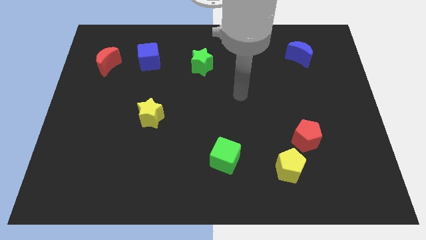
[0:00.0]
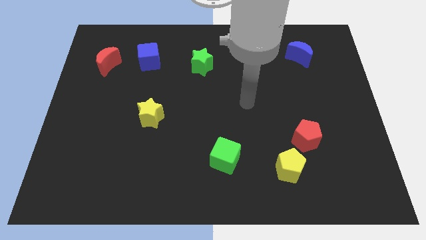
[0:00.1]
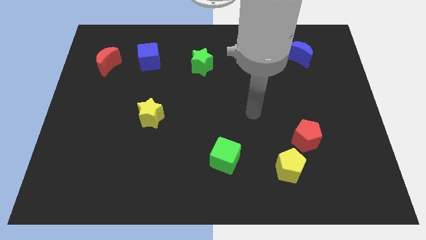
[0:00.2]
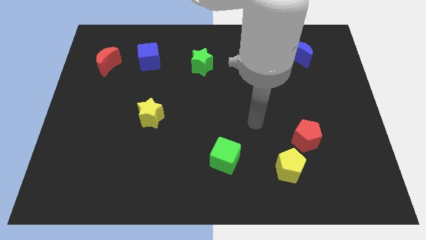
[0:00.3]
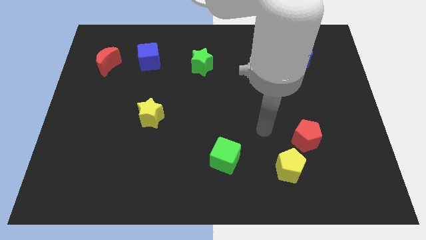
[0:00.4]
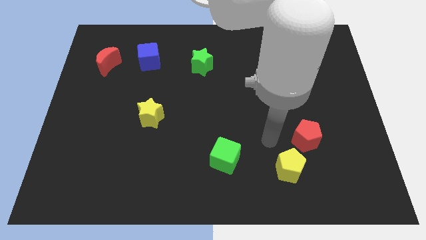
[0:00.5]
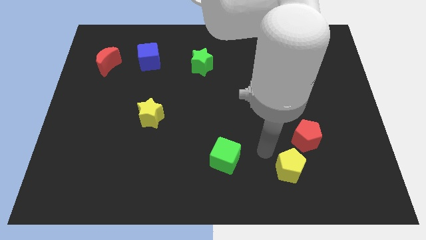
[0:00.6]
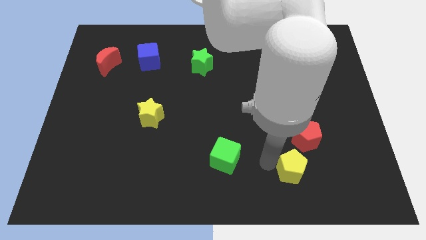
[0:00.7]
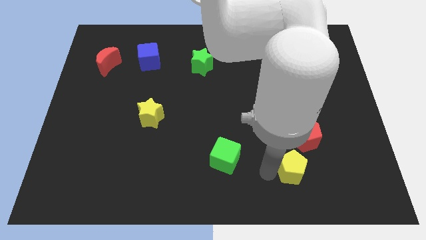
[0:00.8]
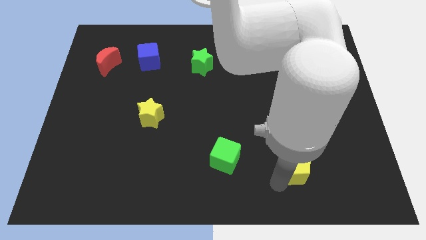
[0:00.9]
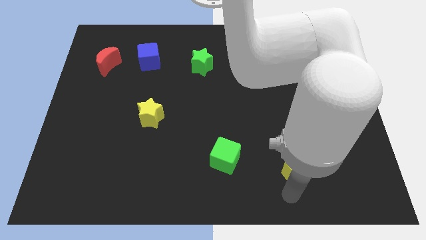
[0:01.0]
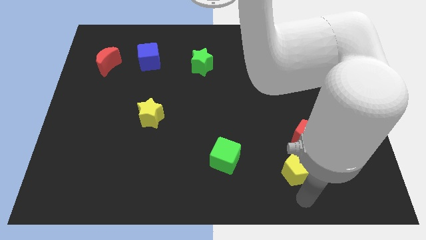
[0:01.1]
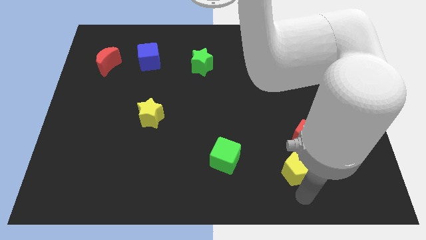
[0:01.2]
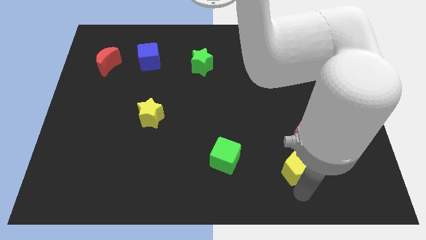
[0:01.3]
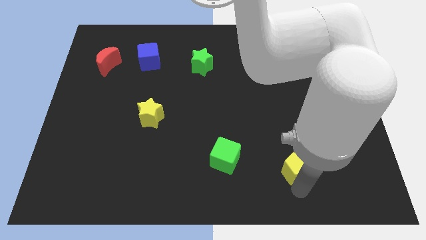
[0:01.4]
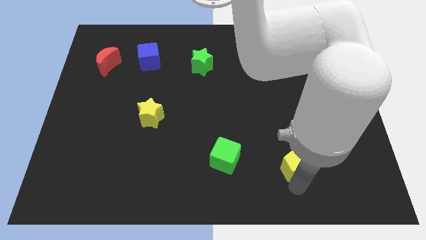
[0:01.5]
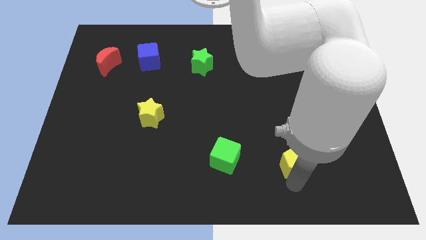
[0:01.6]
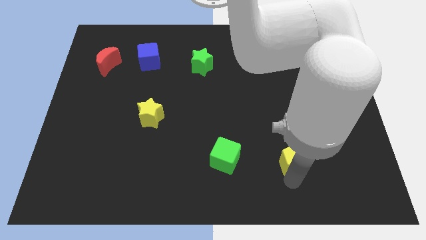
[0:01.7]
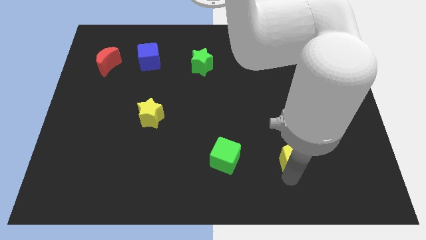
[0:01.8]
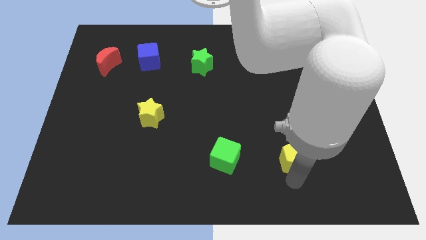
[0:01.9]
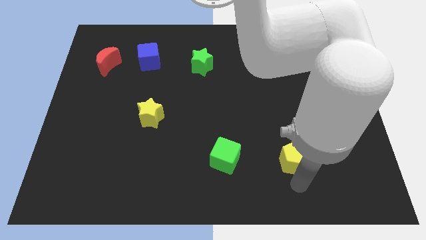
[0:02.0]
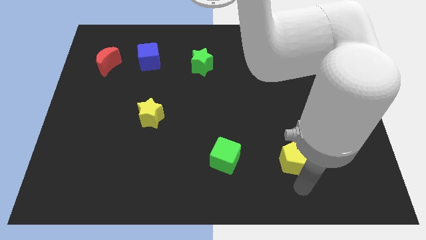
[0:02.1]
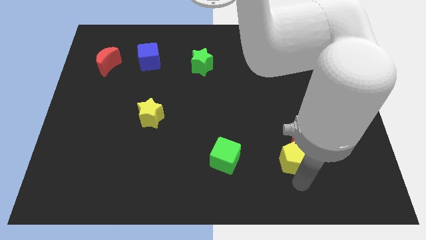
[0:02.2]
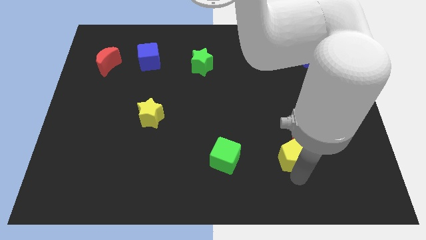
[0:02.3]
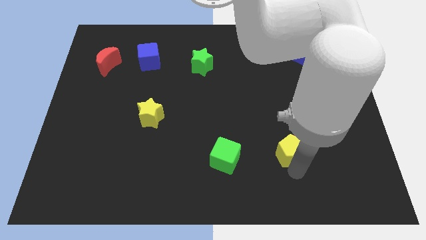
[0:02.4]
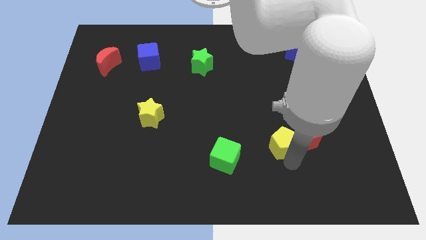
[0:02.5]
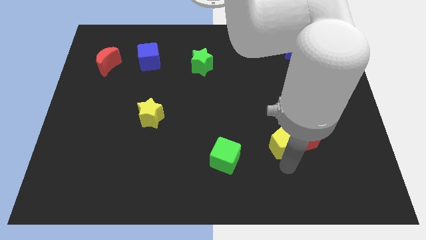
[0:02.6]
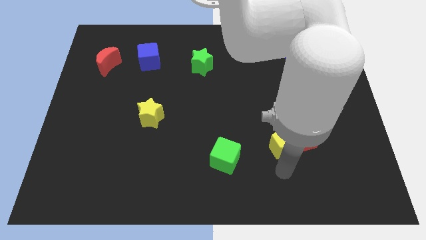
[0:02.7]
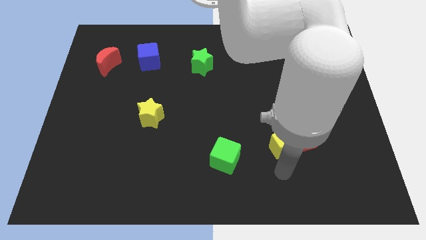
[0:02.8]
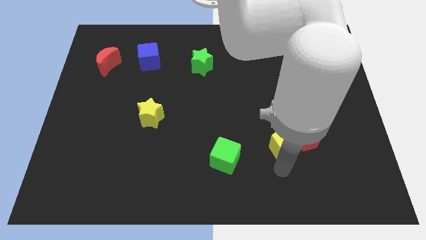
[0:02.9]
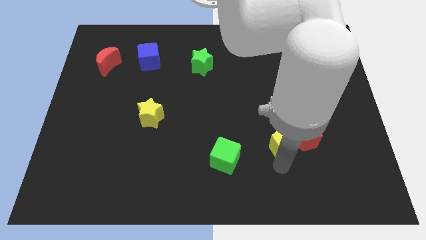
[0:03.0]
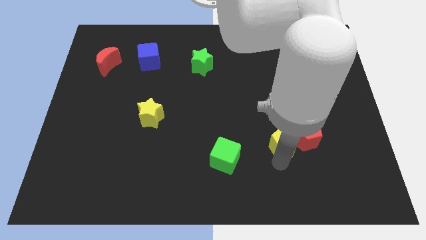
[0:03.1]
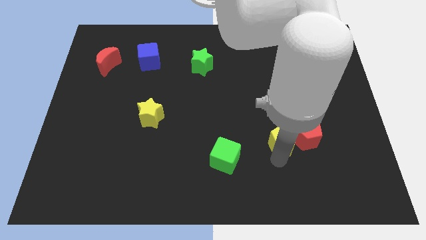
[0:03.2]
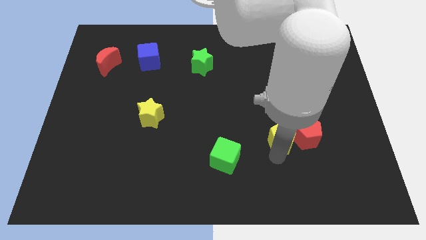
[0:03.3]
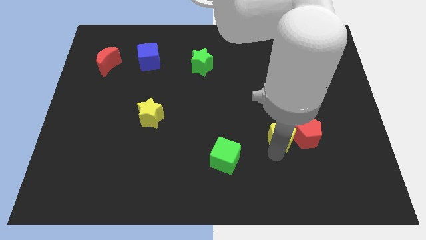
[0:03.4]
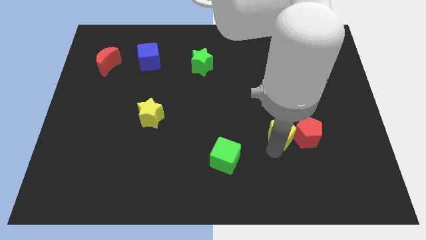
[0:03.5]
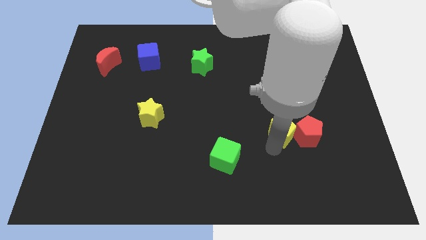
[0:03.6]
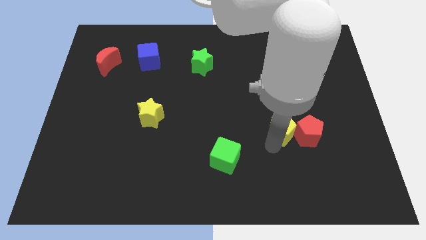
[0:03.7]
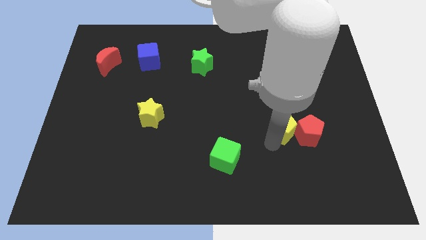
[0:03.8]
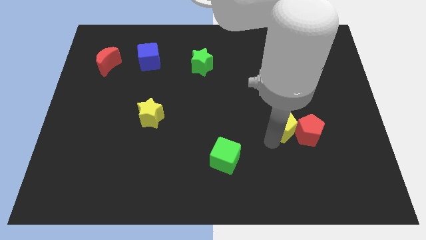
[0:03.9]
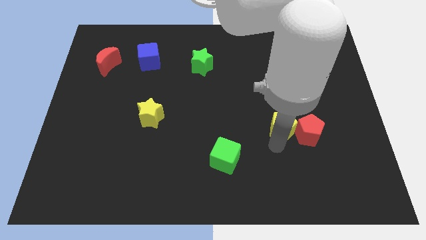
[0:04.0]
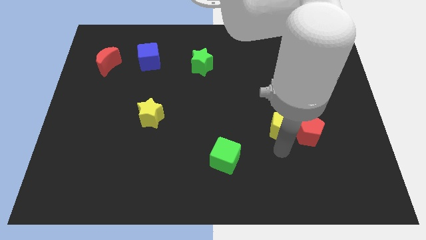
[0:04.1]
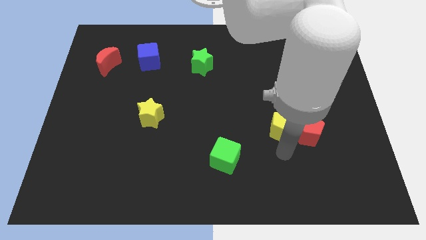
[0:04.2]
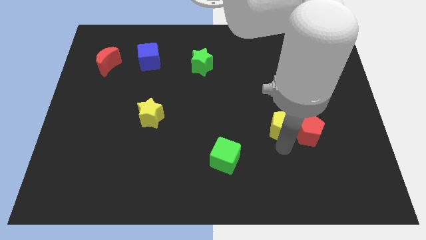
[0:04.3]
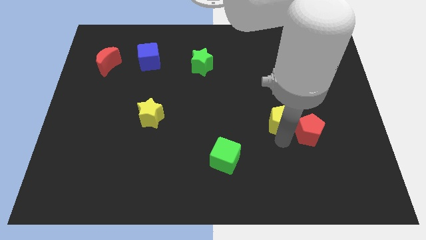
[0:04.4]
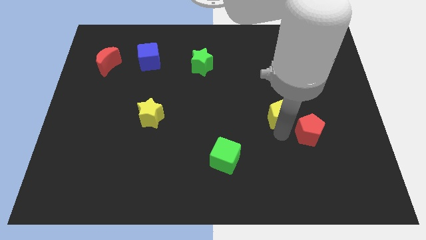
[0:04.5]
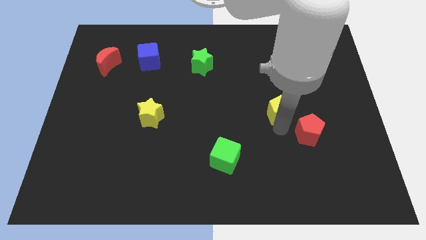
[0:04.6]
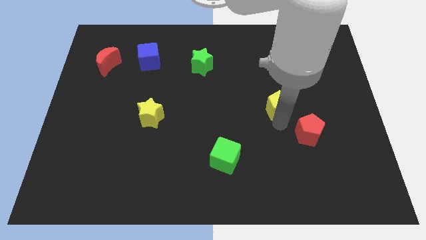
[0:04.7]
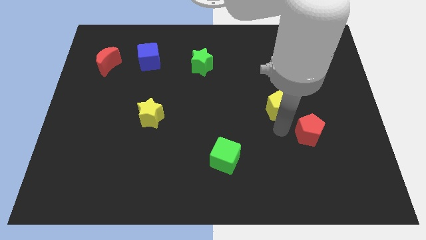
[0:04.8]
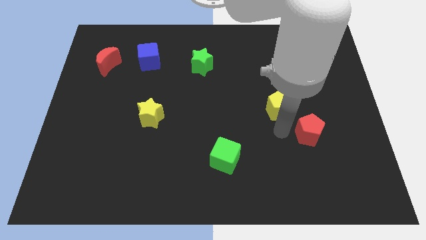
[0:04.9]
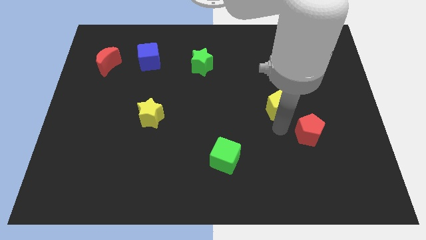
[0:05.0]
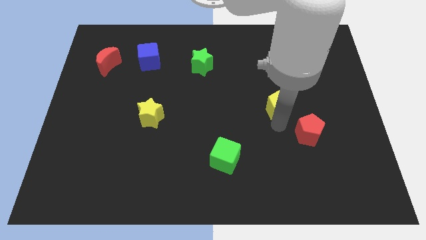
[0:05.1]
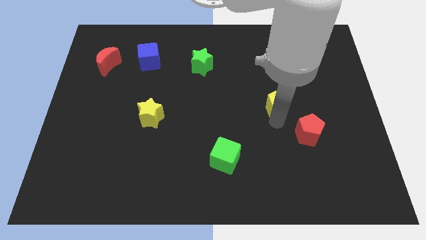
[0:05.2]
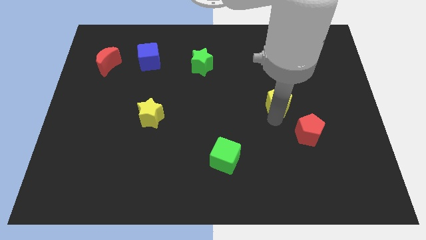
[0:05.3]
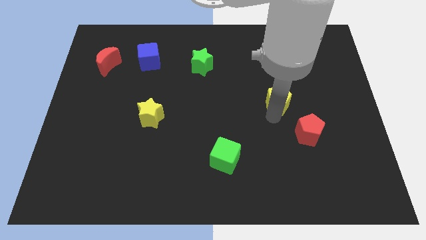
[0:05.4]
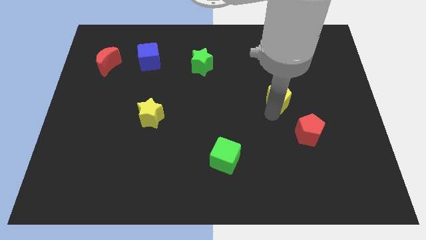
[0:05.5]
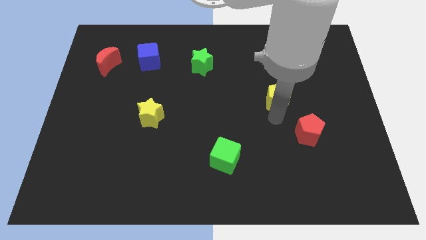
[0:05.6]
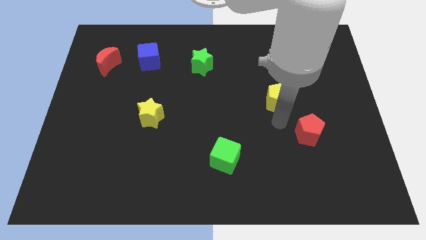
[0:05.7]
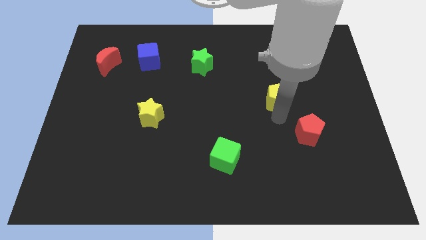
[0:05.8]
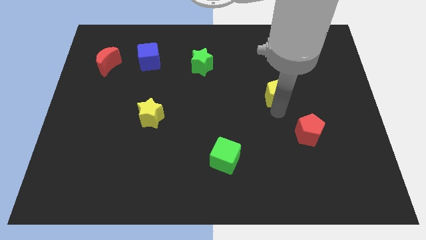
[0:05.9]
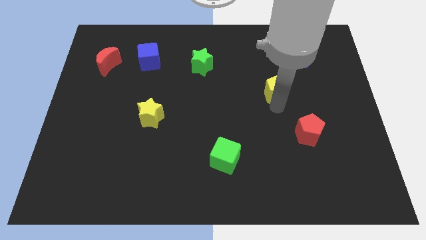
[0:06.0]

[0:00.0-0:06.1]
push the yellow pentagon up

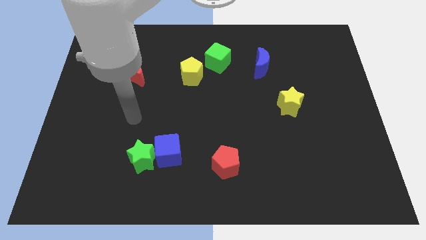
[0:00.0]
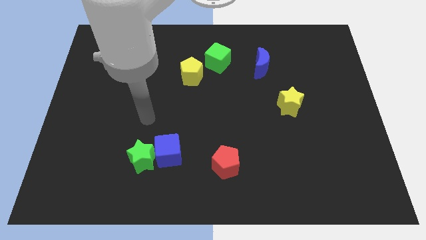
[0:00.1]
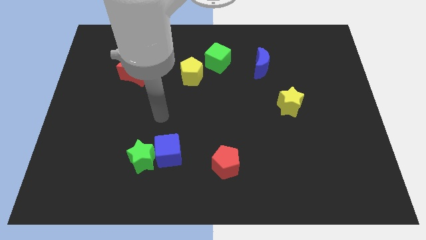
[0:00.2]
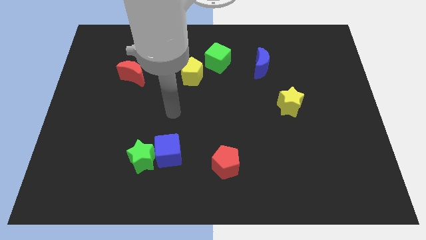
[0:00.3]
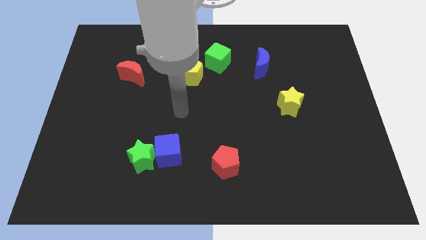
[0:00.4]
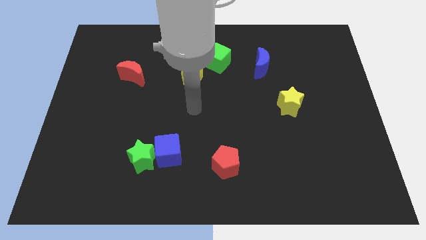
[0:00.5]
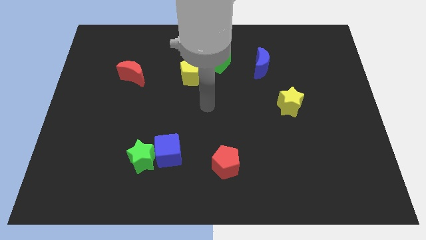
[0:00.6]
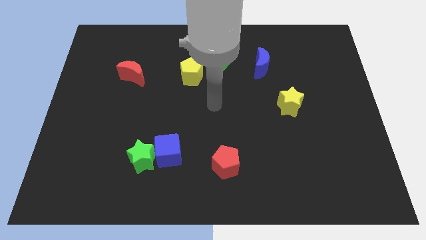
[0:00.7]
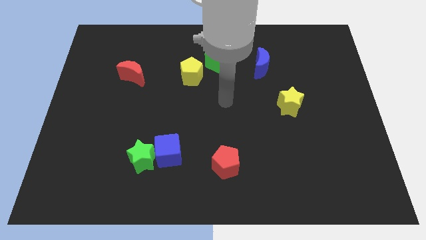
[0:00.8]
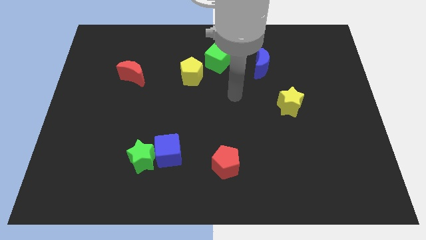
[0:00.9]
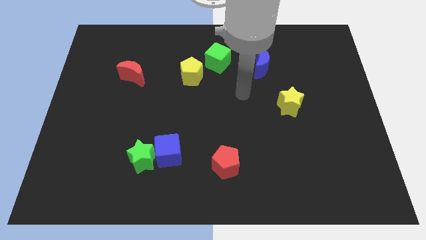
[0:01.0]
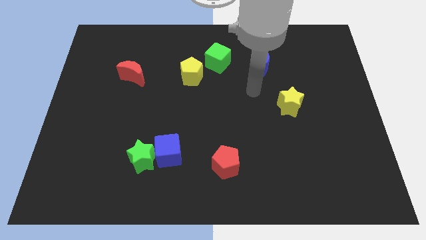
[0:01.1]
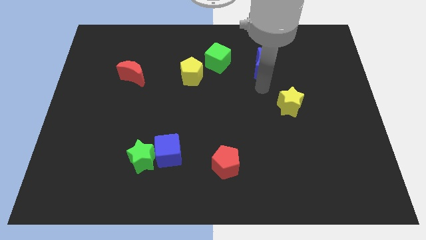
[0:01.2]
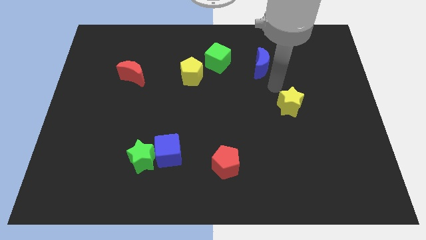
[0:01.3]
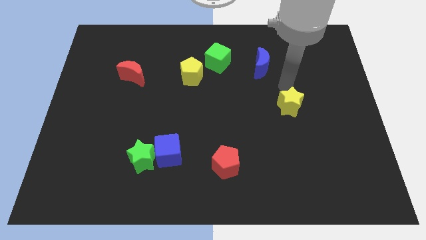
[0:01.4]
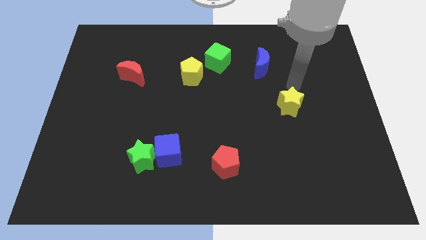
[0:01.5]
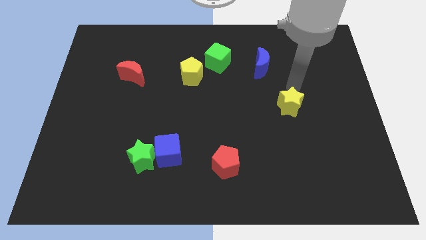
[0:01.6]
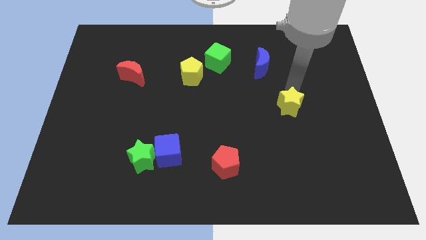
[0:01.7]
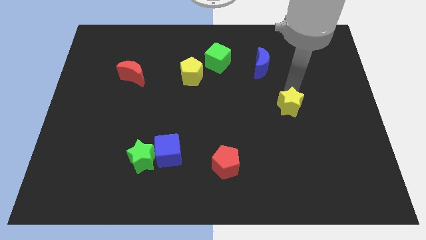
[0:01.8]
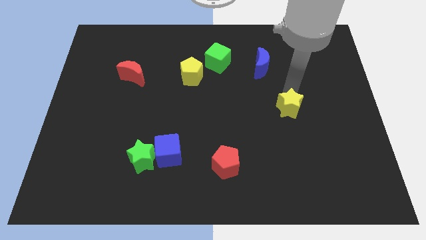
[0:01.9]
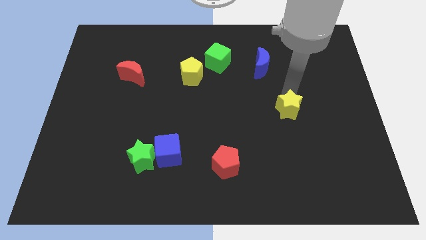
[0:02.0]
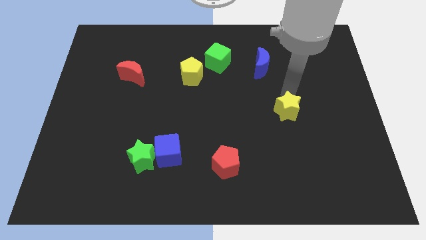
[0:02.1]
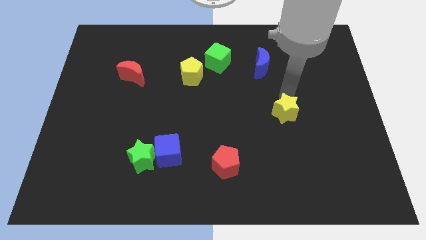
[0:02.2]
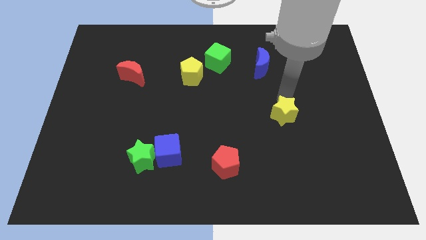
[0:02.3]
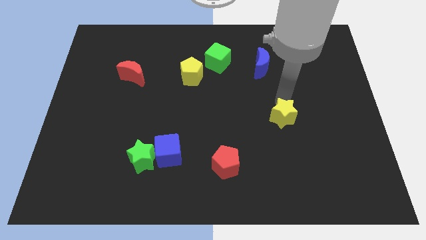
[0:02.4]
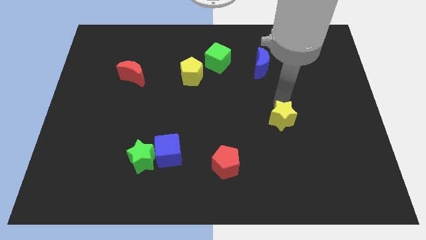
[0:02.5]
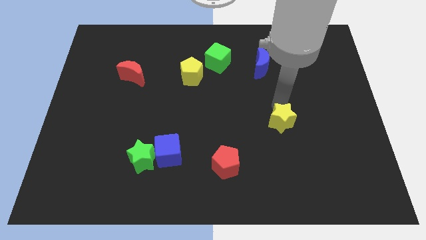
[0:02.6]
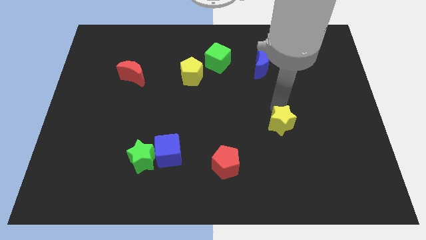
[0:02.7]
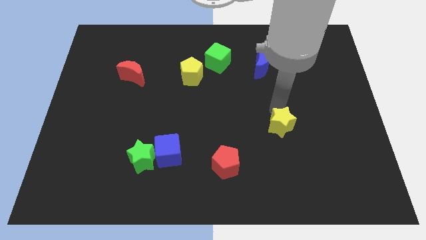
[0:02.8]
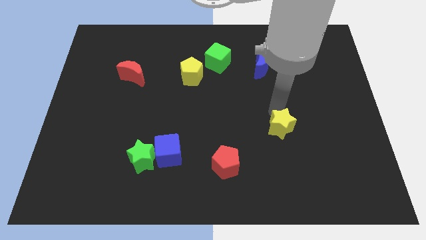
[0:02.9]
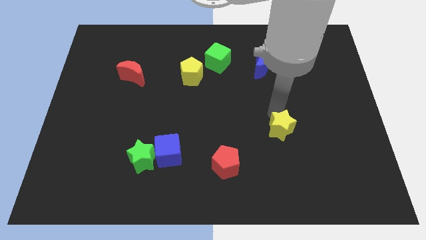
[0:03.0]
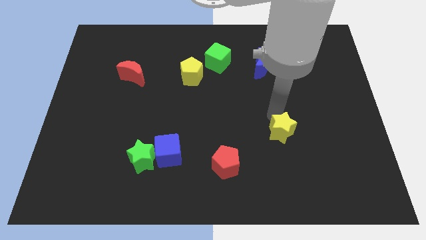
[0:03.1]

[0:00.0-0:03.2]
slide the yellow star down a little
